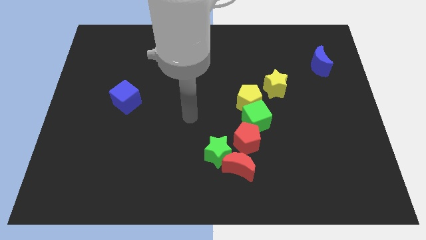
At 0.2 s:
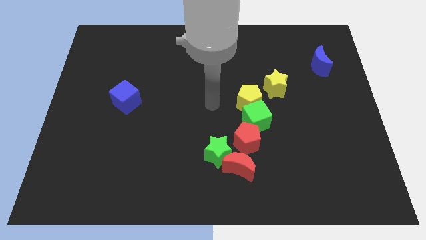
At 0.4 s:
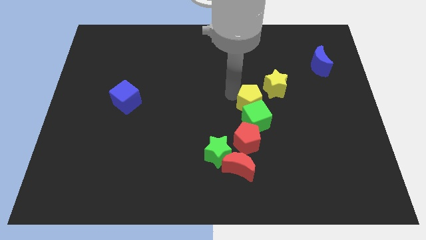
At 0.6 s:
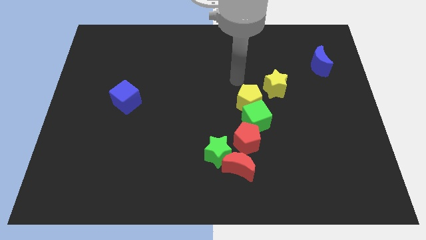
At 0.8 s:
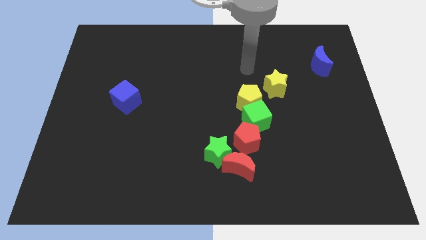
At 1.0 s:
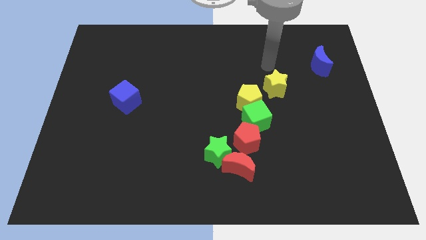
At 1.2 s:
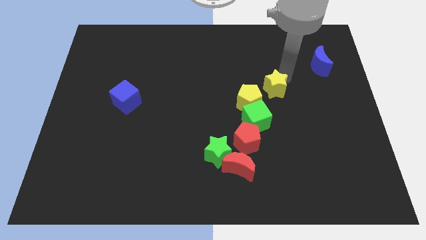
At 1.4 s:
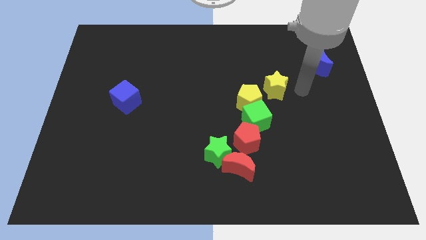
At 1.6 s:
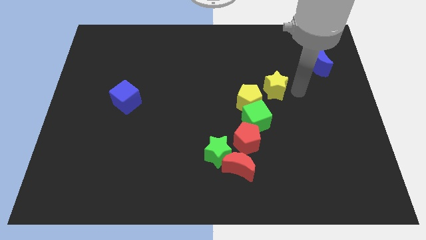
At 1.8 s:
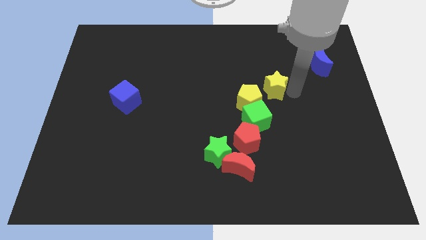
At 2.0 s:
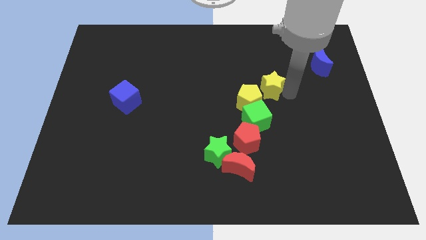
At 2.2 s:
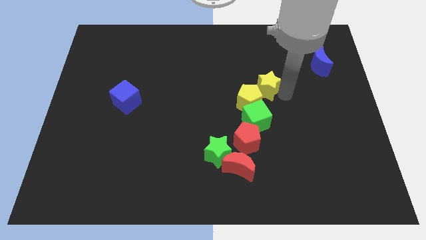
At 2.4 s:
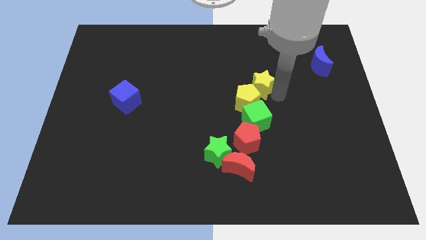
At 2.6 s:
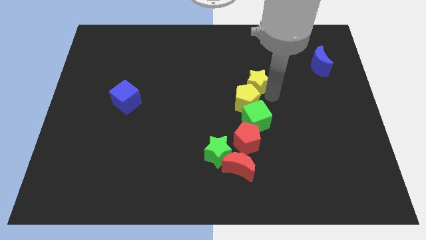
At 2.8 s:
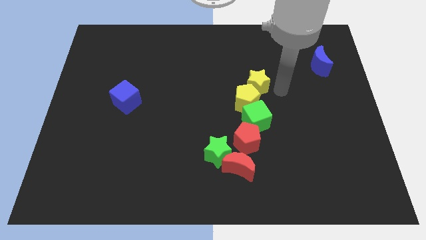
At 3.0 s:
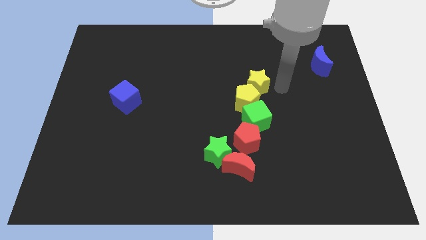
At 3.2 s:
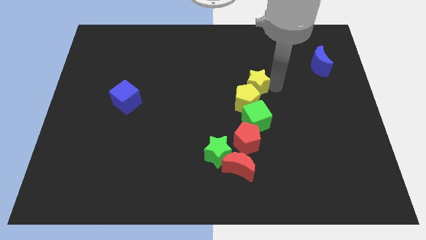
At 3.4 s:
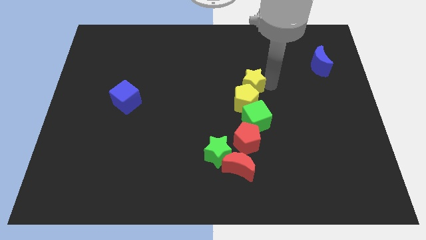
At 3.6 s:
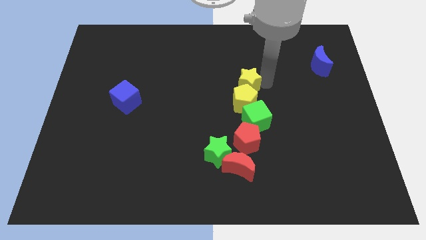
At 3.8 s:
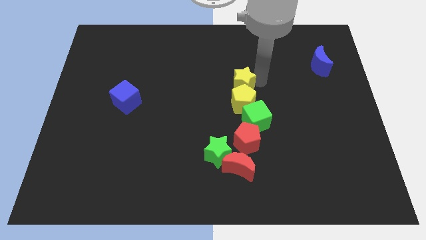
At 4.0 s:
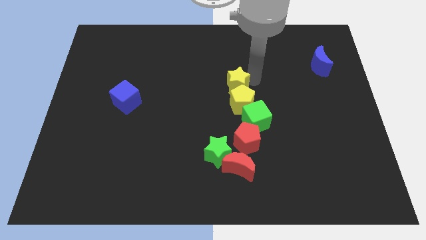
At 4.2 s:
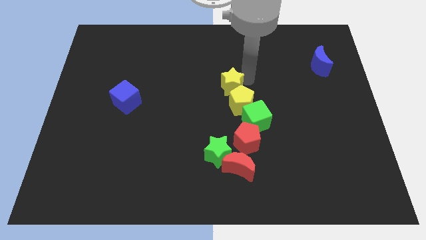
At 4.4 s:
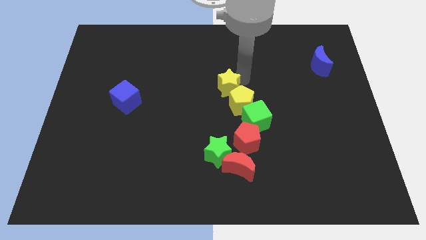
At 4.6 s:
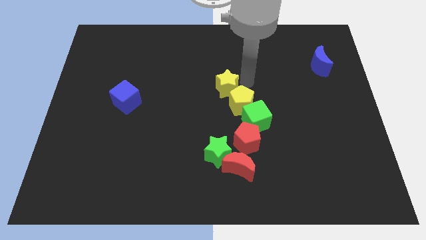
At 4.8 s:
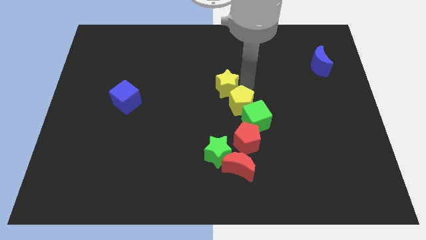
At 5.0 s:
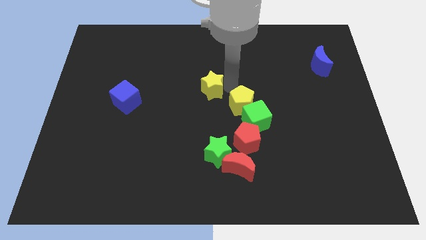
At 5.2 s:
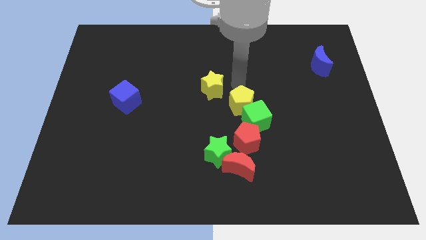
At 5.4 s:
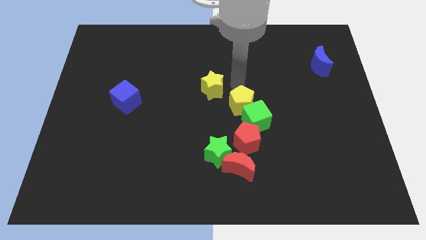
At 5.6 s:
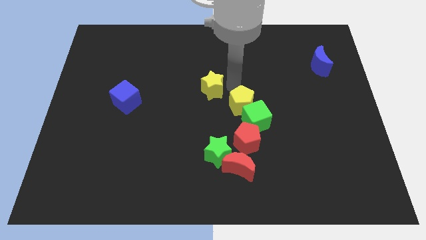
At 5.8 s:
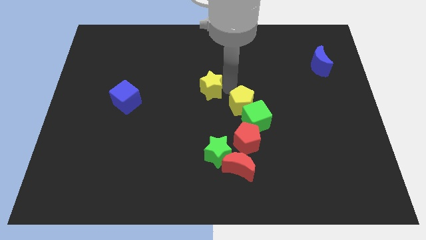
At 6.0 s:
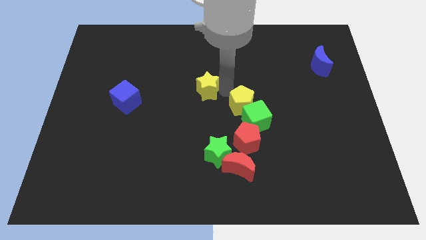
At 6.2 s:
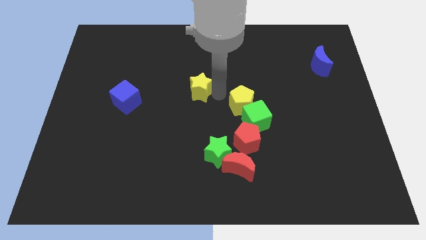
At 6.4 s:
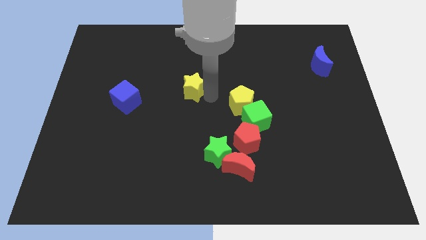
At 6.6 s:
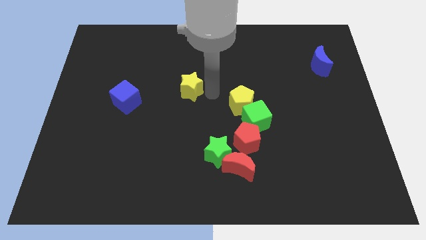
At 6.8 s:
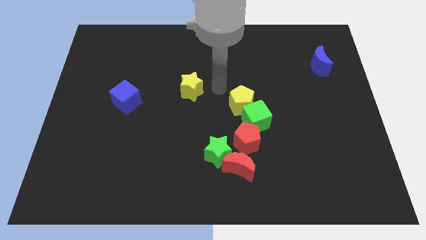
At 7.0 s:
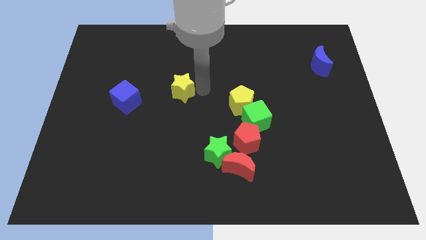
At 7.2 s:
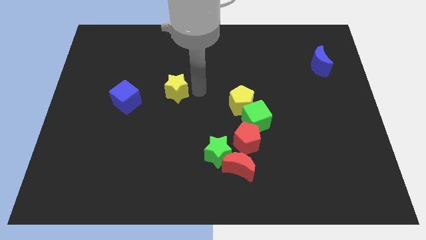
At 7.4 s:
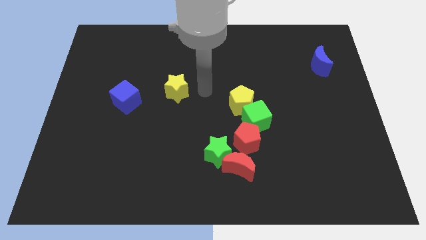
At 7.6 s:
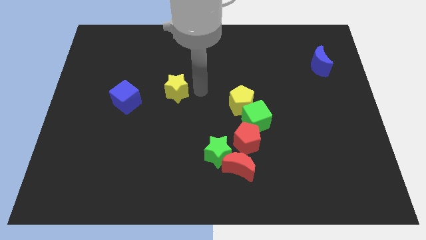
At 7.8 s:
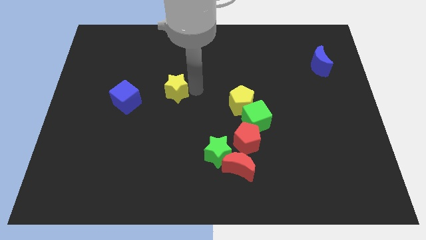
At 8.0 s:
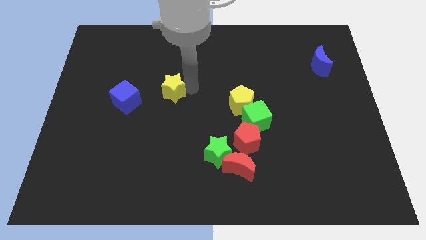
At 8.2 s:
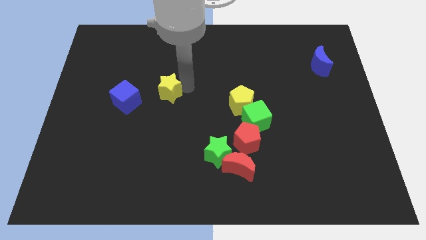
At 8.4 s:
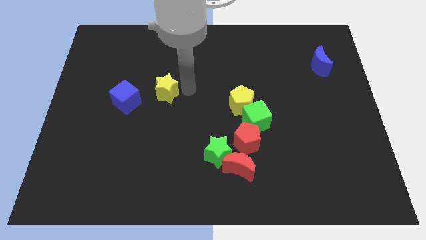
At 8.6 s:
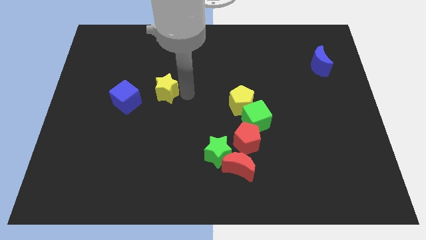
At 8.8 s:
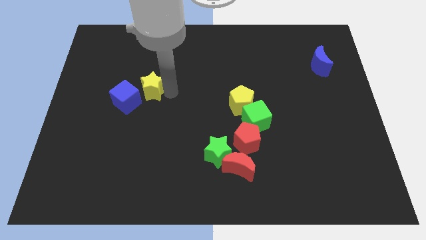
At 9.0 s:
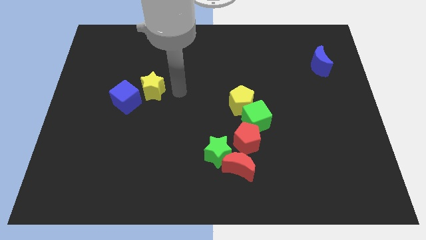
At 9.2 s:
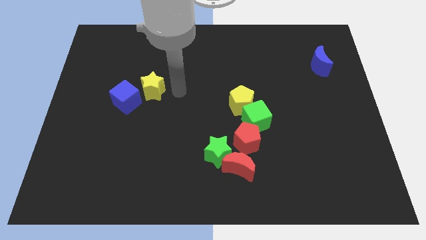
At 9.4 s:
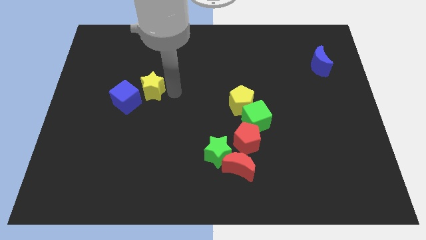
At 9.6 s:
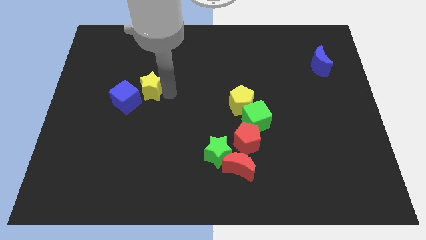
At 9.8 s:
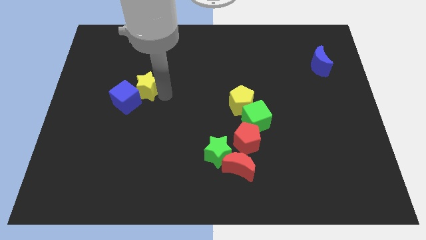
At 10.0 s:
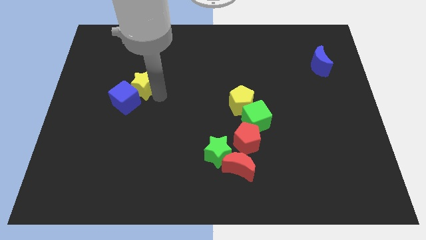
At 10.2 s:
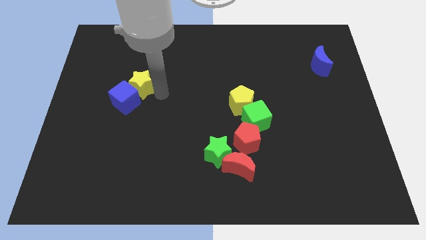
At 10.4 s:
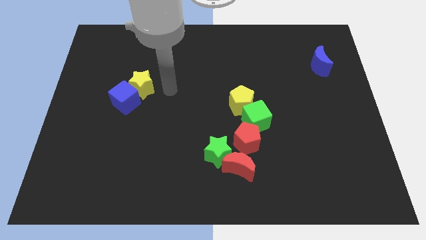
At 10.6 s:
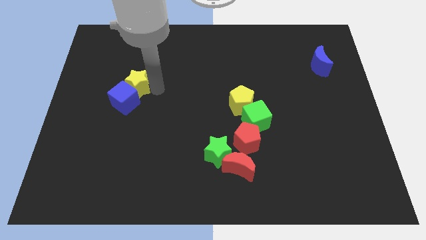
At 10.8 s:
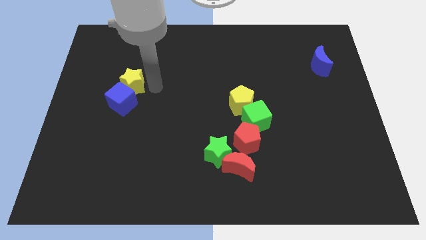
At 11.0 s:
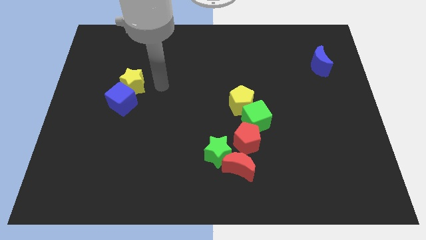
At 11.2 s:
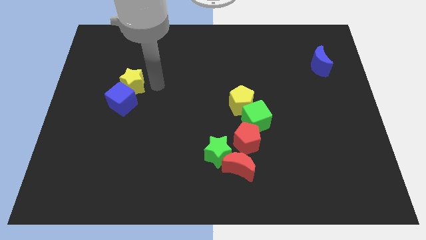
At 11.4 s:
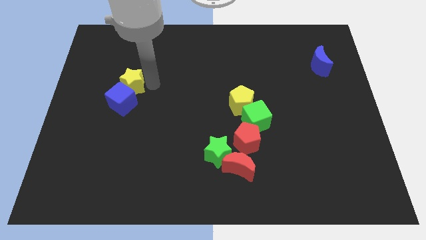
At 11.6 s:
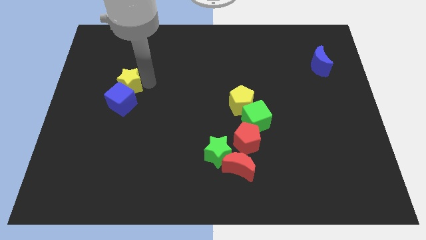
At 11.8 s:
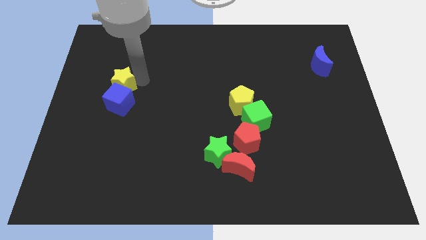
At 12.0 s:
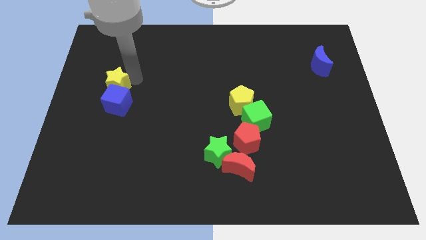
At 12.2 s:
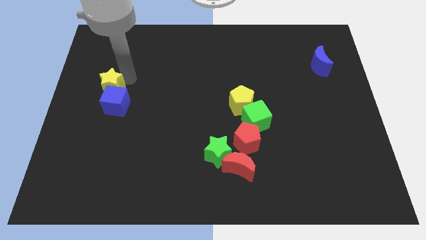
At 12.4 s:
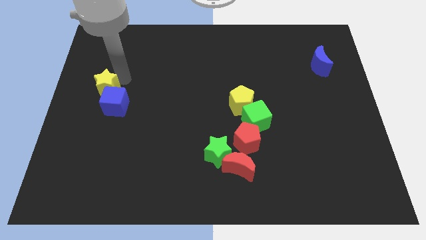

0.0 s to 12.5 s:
move the yellow star to the left side of the board
